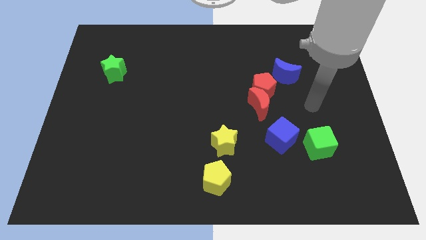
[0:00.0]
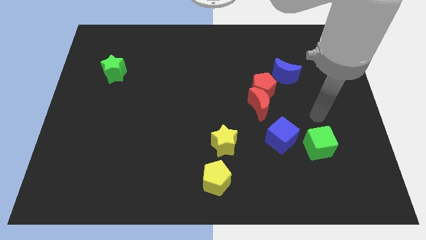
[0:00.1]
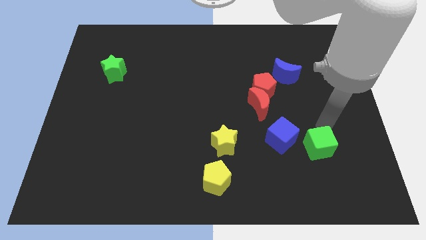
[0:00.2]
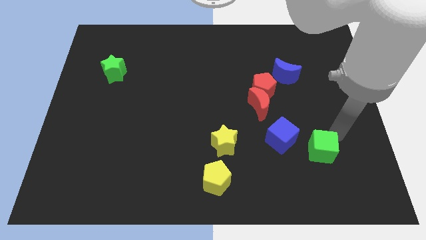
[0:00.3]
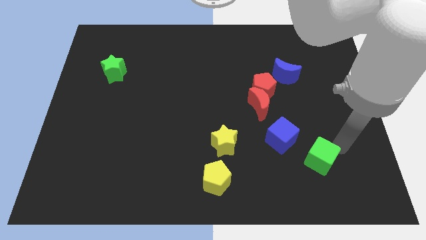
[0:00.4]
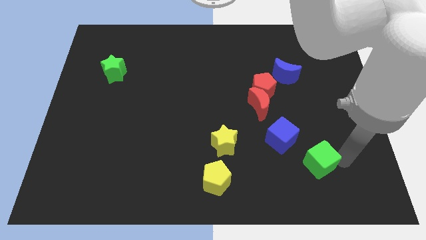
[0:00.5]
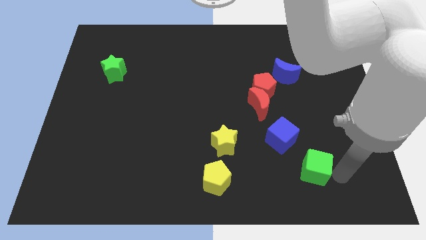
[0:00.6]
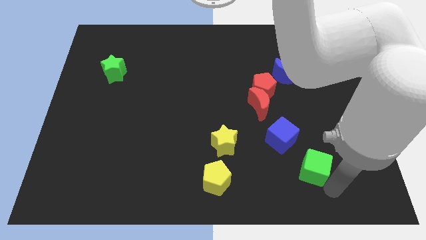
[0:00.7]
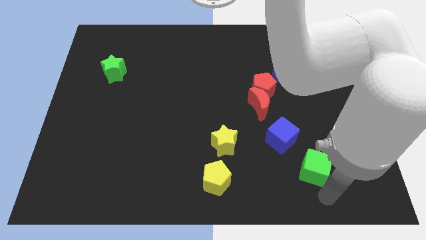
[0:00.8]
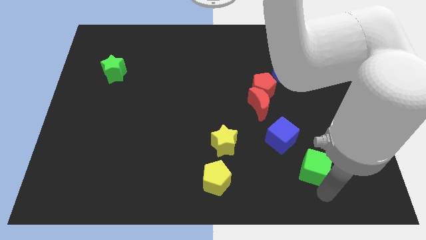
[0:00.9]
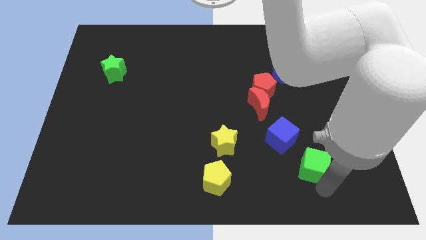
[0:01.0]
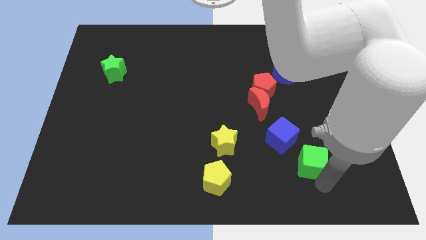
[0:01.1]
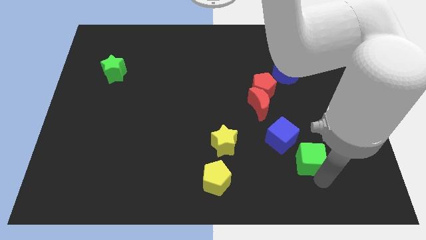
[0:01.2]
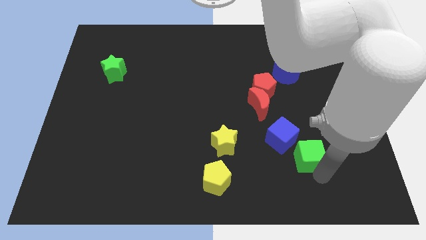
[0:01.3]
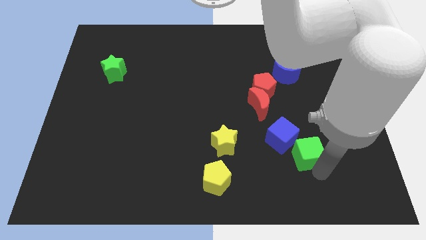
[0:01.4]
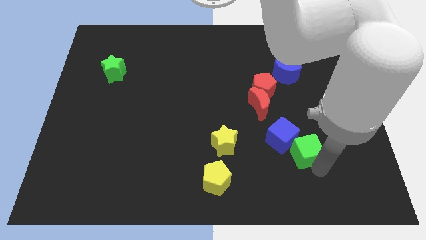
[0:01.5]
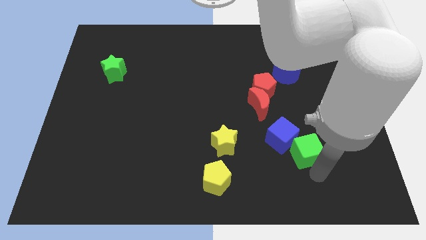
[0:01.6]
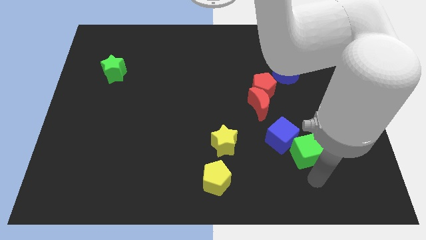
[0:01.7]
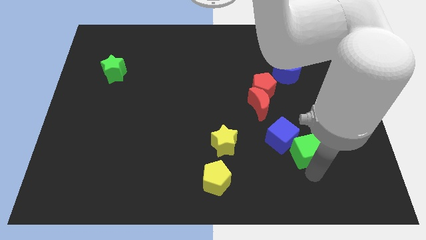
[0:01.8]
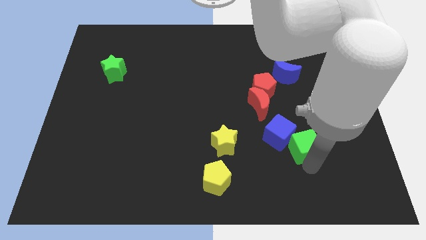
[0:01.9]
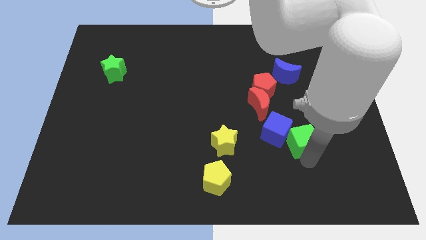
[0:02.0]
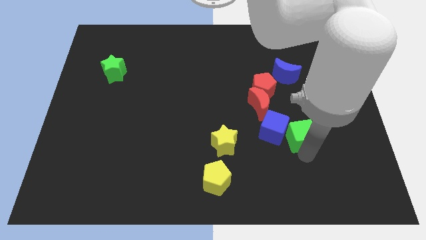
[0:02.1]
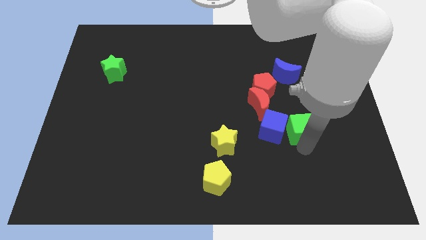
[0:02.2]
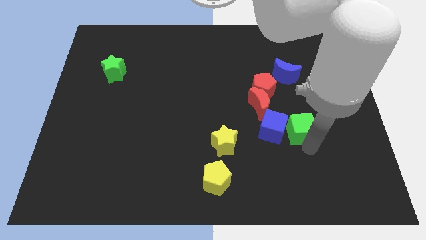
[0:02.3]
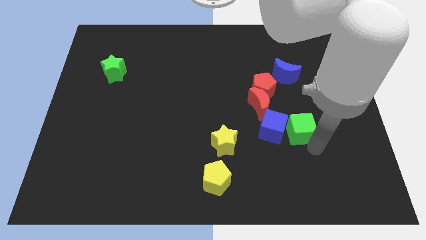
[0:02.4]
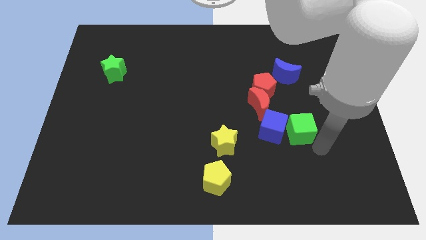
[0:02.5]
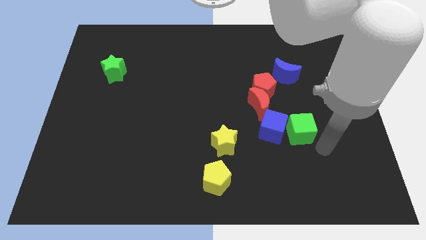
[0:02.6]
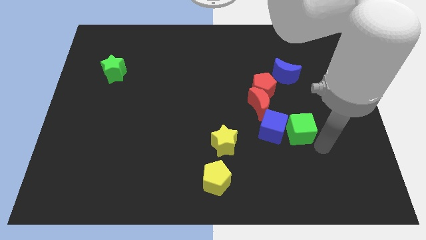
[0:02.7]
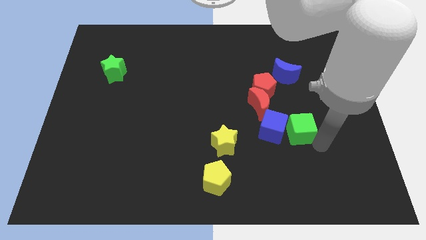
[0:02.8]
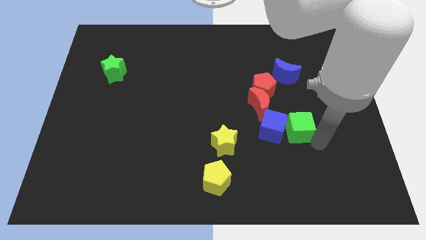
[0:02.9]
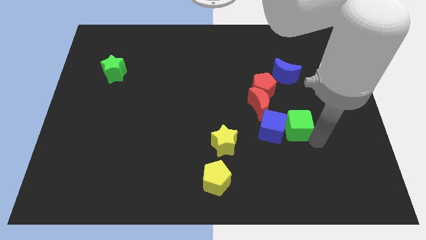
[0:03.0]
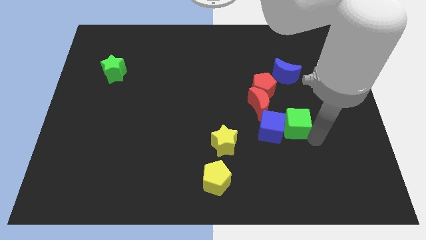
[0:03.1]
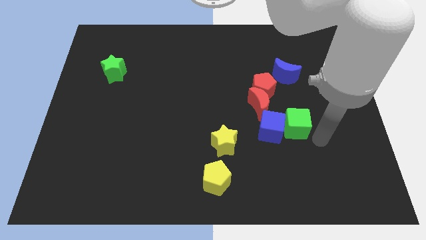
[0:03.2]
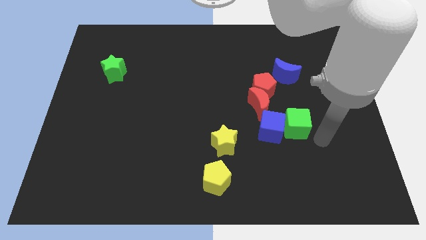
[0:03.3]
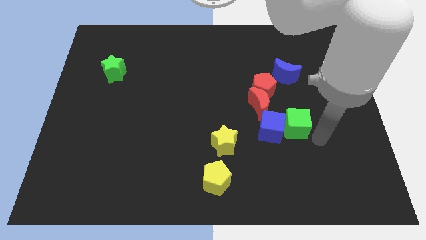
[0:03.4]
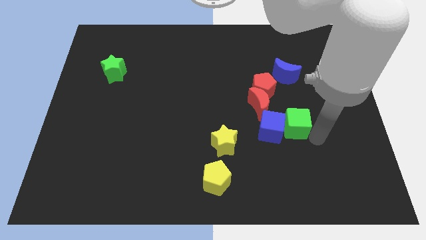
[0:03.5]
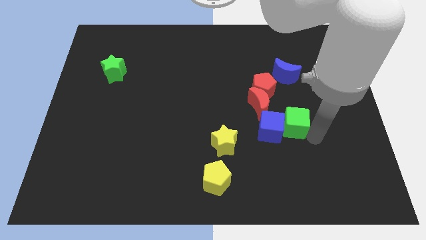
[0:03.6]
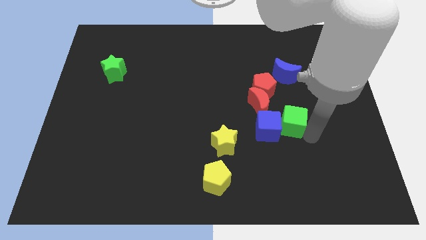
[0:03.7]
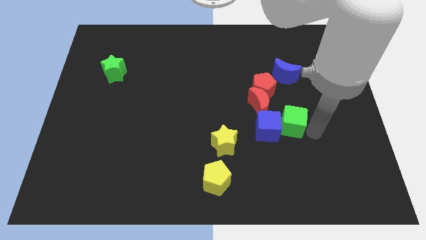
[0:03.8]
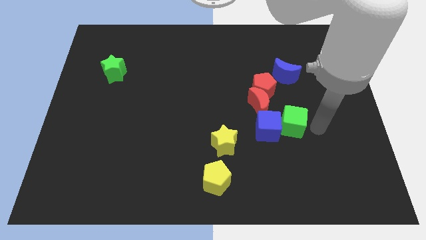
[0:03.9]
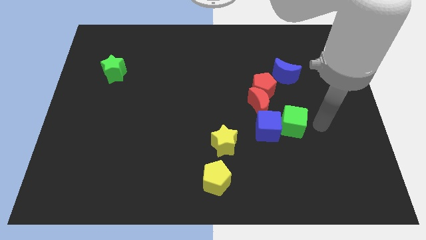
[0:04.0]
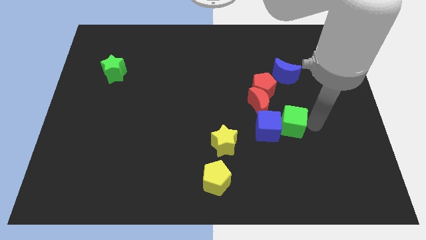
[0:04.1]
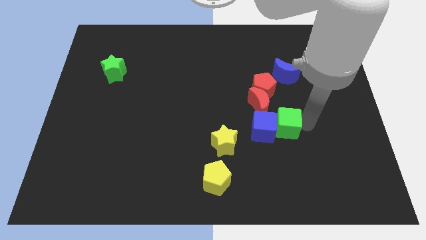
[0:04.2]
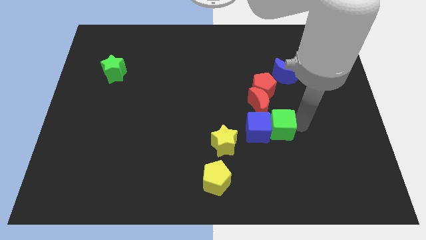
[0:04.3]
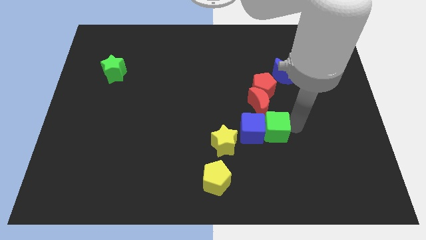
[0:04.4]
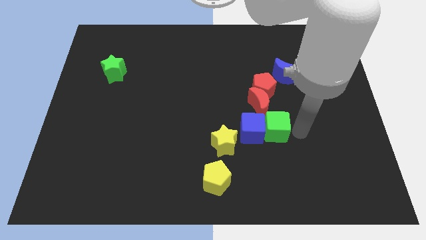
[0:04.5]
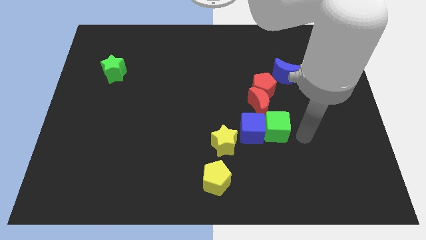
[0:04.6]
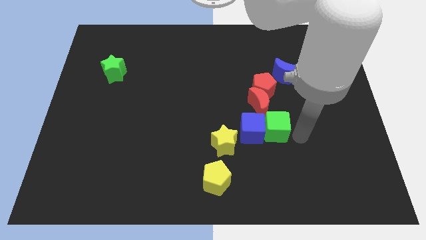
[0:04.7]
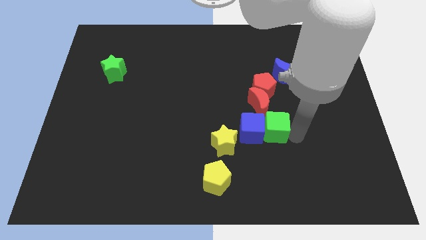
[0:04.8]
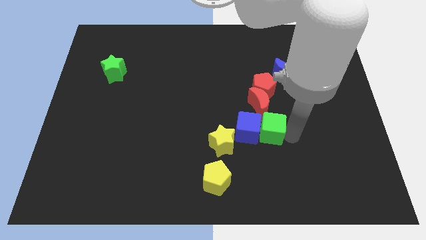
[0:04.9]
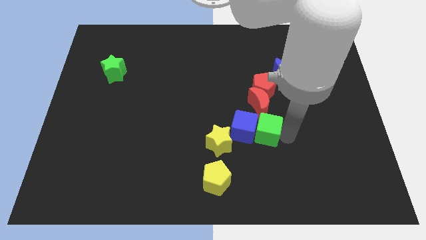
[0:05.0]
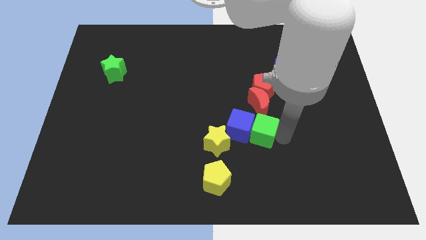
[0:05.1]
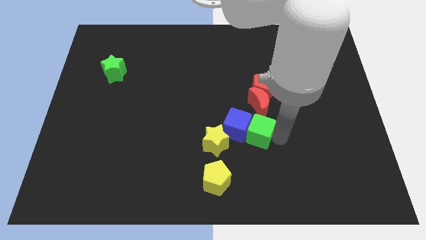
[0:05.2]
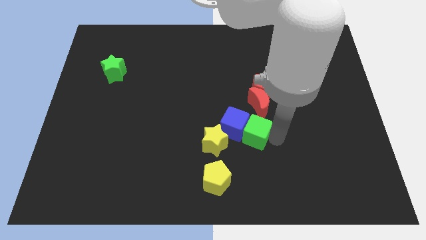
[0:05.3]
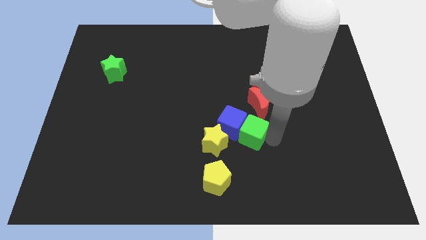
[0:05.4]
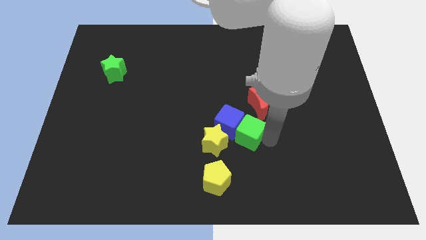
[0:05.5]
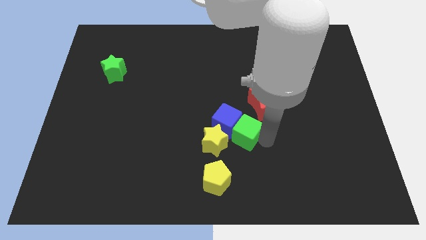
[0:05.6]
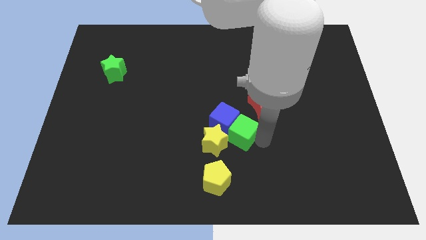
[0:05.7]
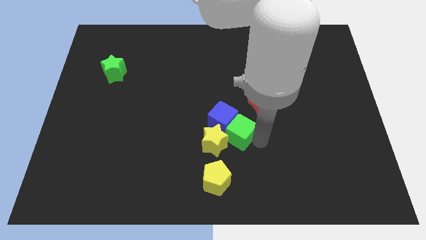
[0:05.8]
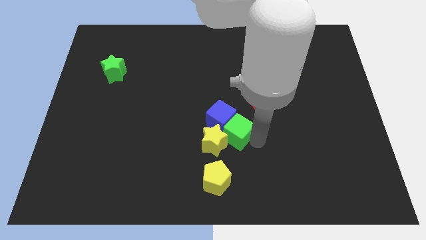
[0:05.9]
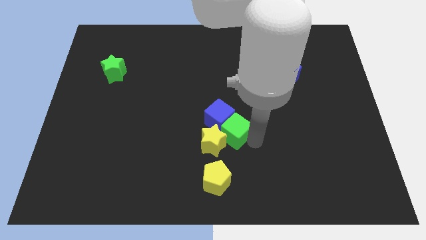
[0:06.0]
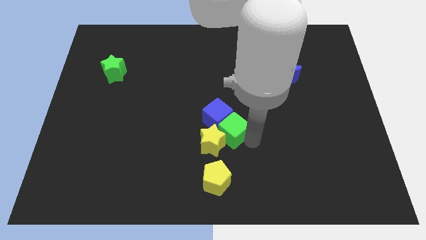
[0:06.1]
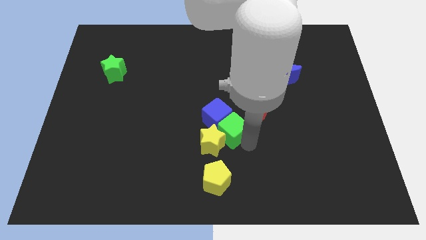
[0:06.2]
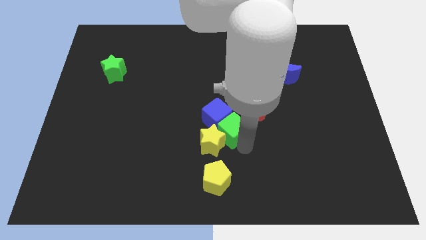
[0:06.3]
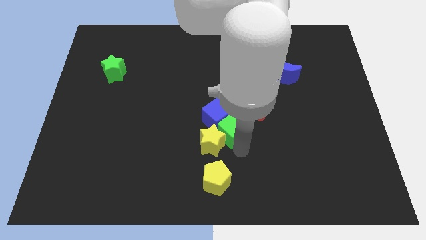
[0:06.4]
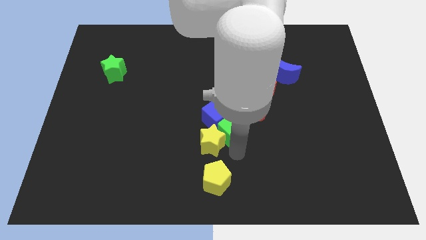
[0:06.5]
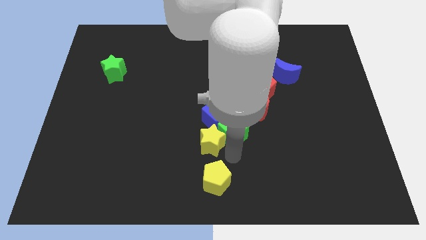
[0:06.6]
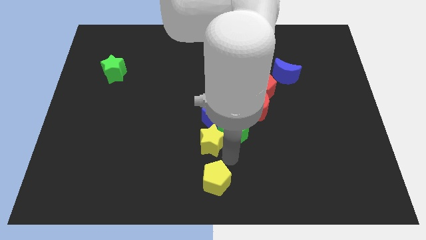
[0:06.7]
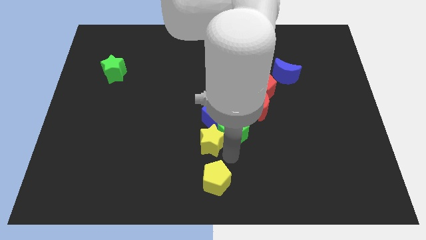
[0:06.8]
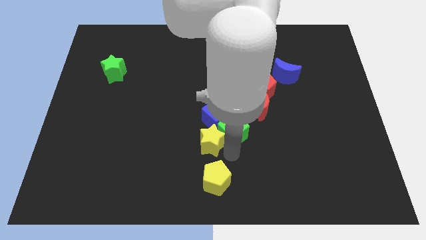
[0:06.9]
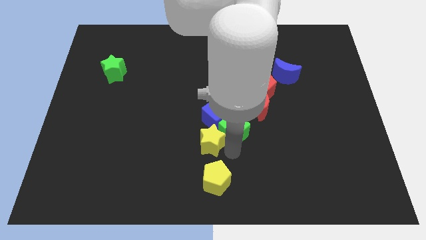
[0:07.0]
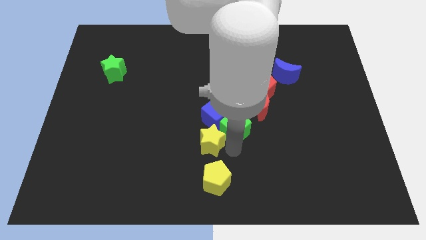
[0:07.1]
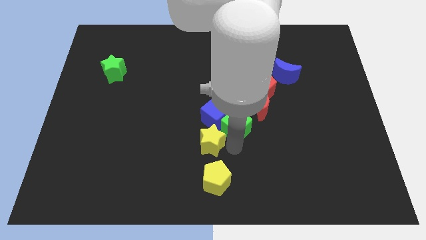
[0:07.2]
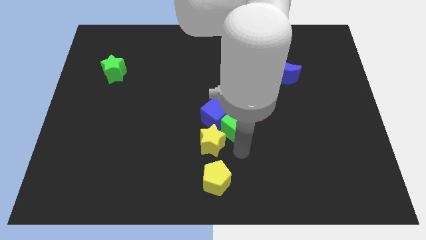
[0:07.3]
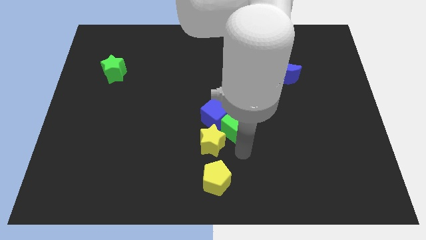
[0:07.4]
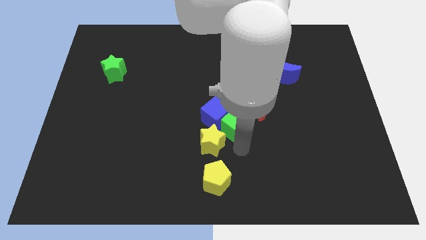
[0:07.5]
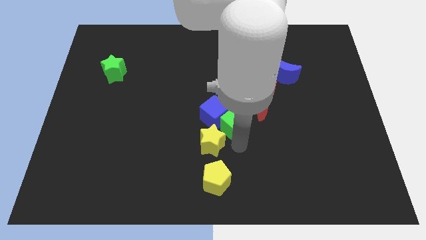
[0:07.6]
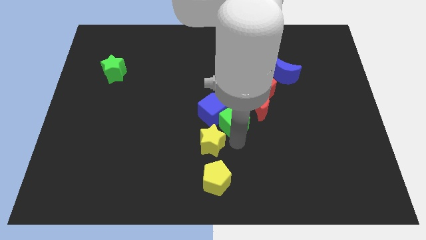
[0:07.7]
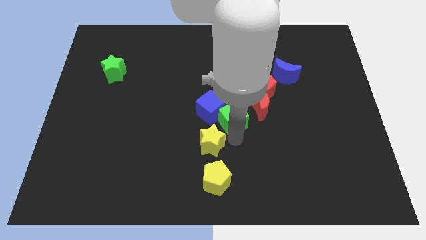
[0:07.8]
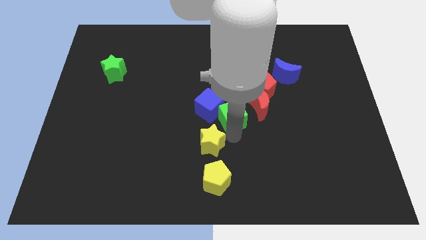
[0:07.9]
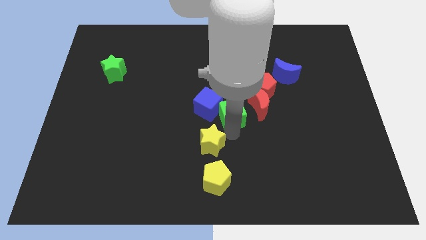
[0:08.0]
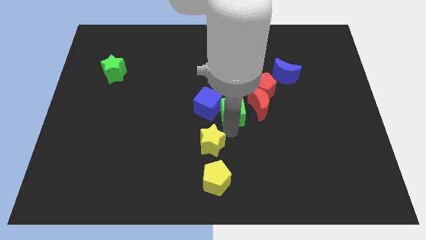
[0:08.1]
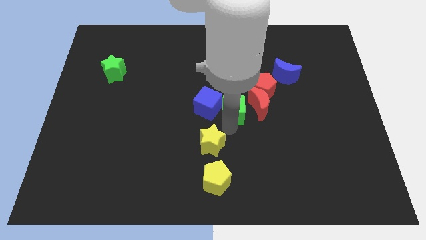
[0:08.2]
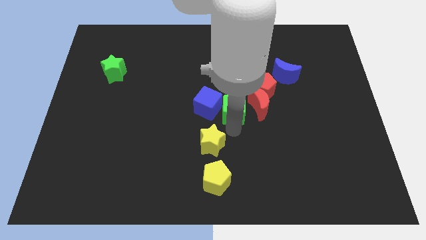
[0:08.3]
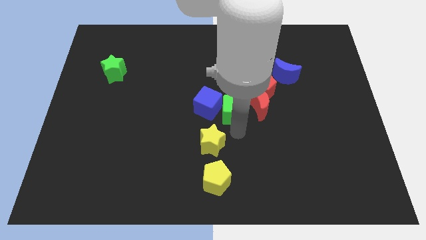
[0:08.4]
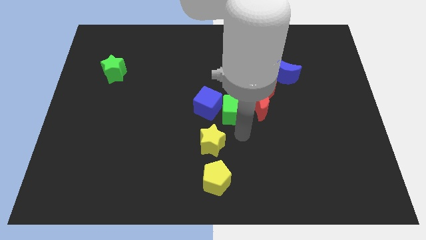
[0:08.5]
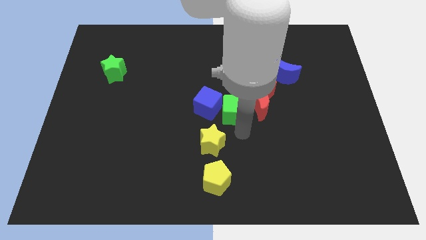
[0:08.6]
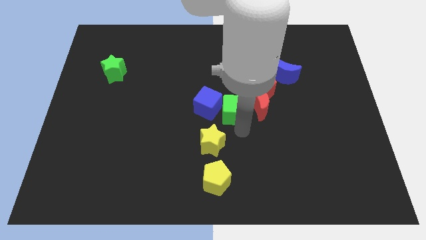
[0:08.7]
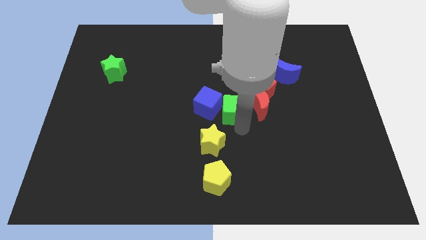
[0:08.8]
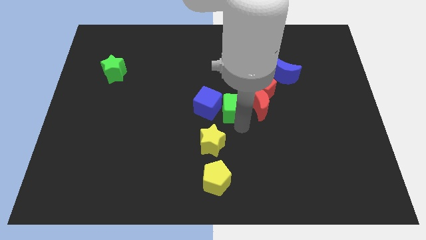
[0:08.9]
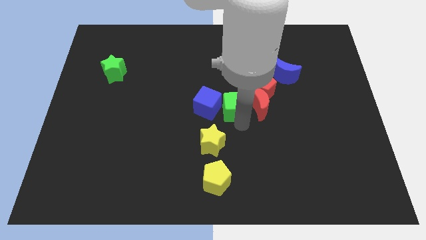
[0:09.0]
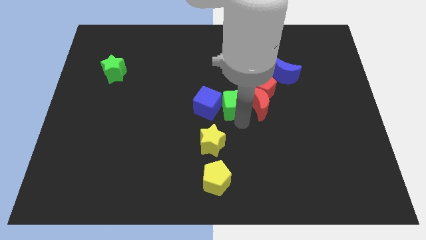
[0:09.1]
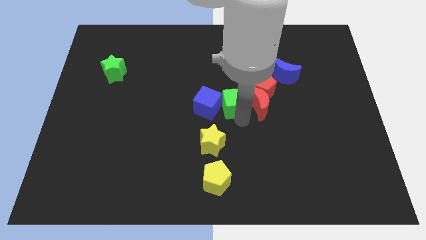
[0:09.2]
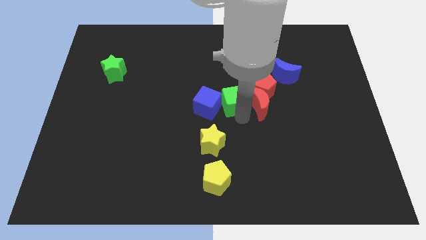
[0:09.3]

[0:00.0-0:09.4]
move the green cube upwards and to the left
